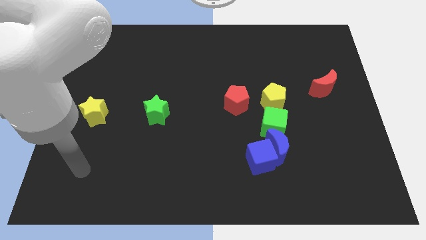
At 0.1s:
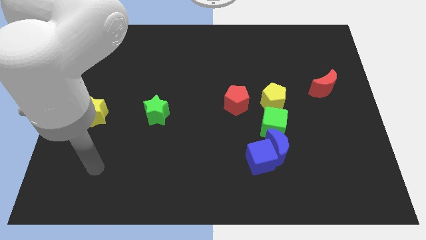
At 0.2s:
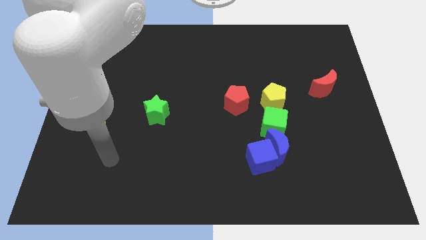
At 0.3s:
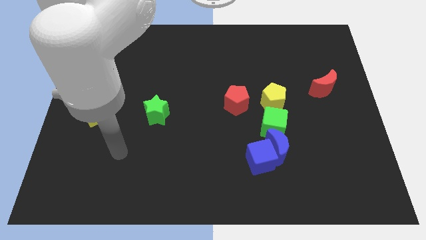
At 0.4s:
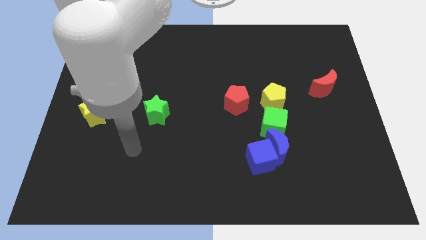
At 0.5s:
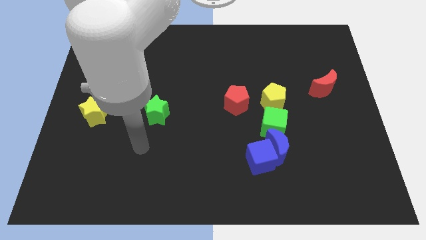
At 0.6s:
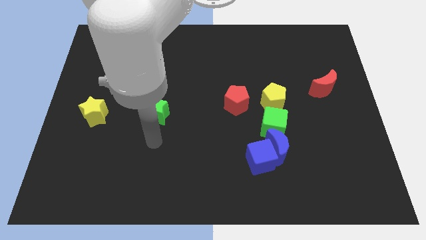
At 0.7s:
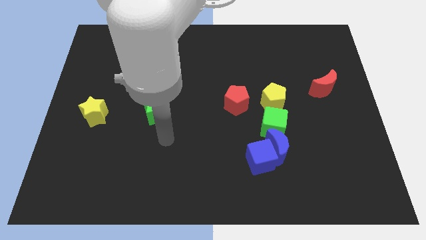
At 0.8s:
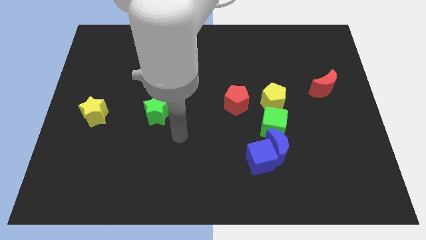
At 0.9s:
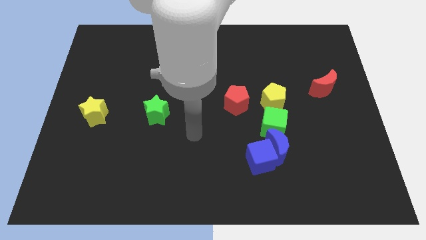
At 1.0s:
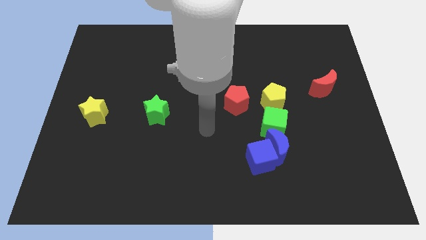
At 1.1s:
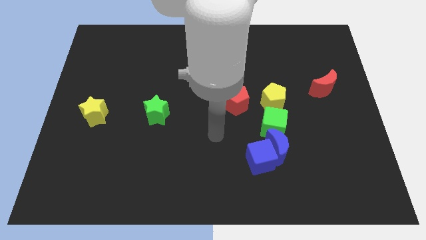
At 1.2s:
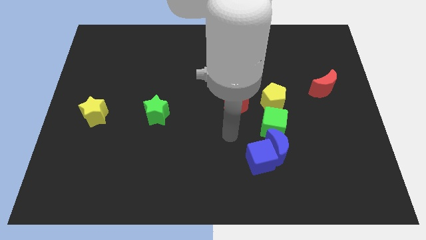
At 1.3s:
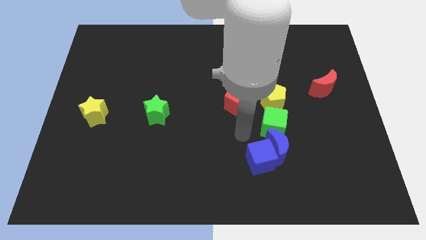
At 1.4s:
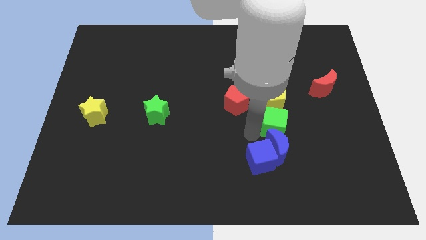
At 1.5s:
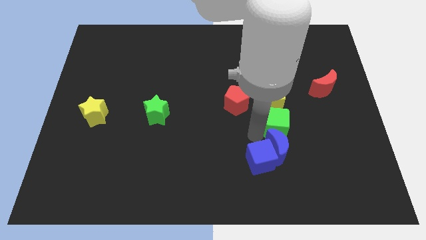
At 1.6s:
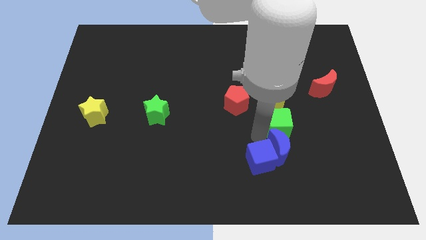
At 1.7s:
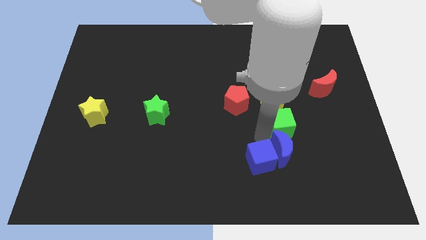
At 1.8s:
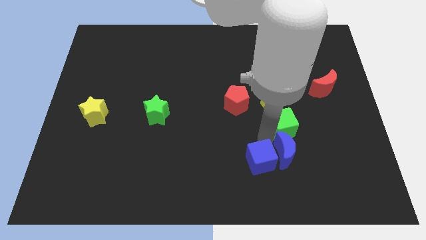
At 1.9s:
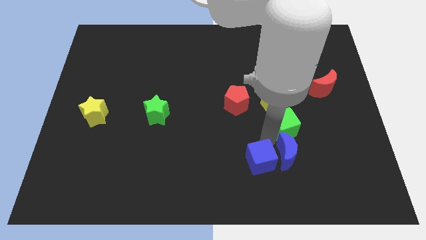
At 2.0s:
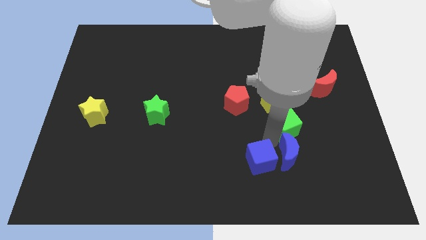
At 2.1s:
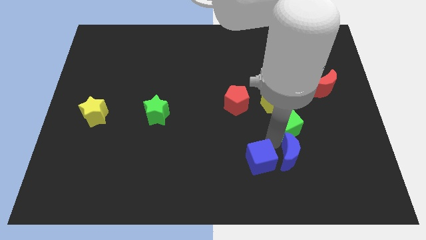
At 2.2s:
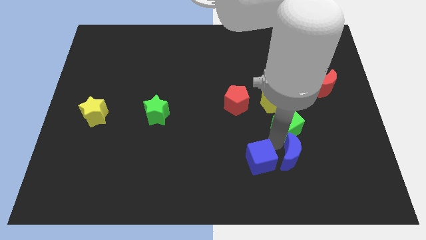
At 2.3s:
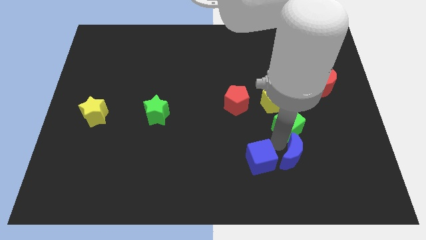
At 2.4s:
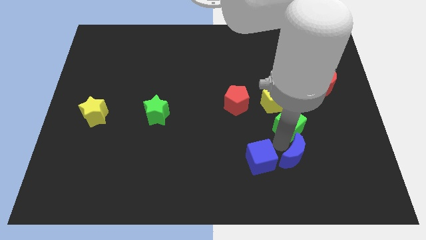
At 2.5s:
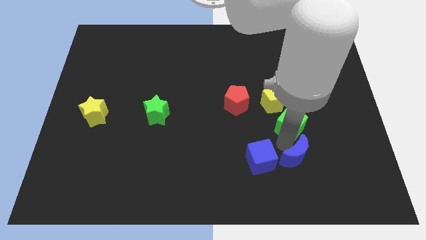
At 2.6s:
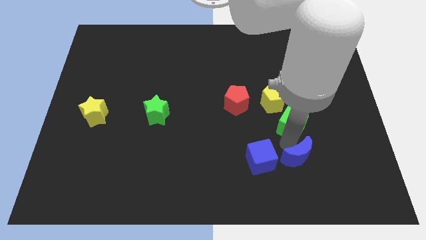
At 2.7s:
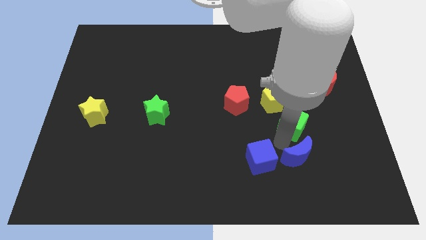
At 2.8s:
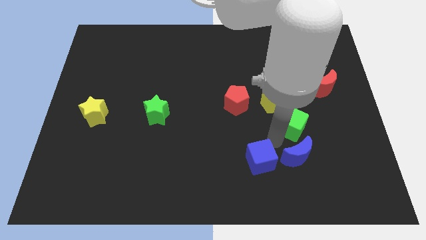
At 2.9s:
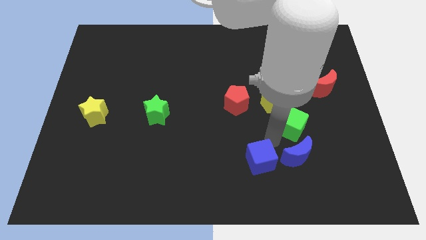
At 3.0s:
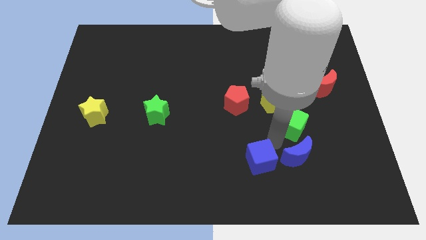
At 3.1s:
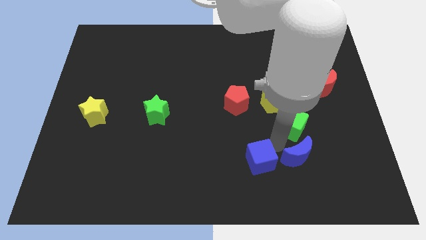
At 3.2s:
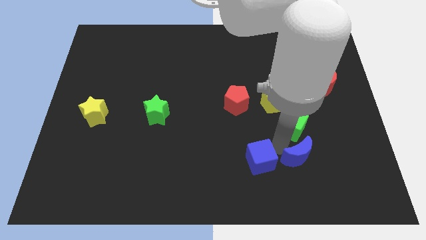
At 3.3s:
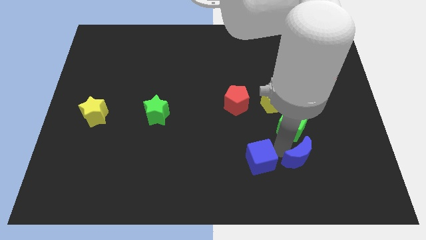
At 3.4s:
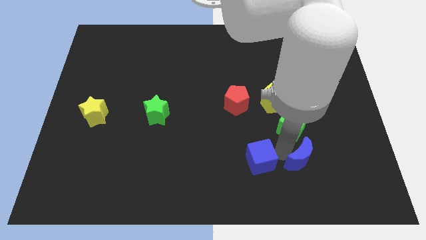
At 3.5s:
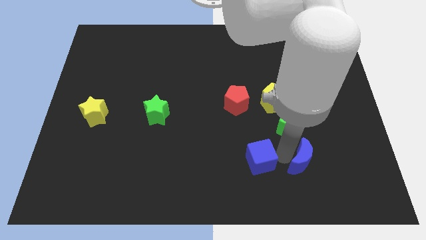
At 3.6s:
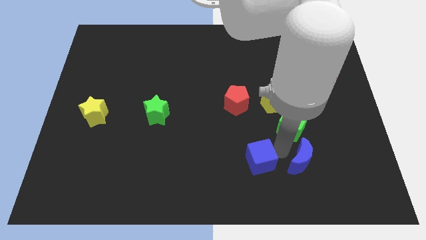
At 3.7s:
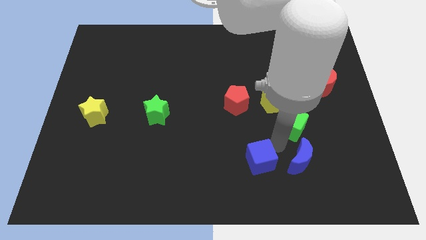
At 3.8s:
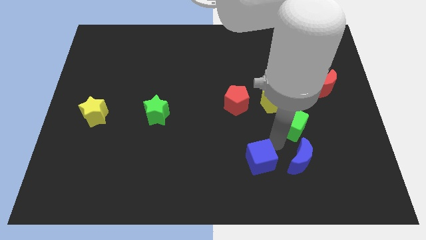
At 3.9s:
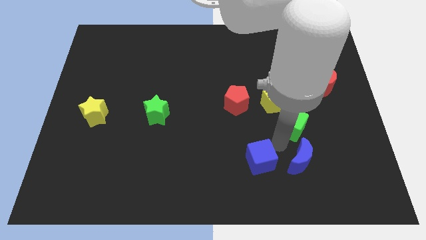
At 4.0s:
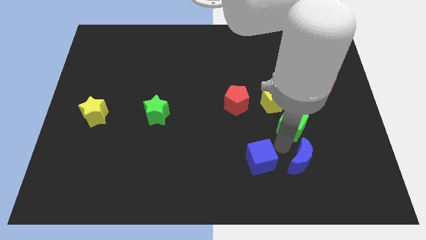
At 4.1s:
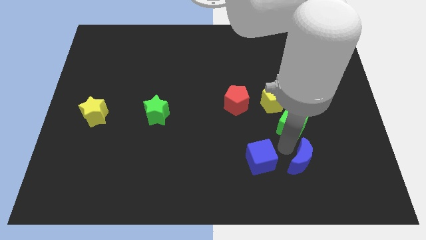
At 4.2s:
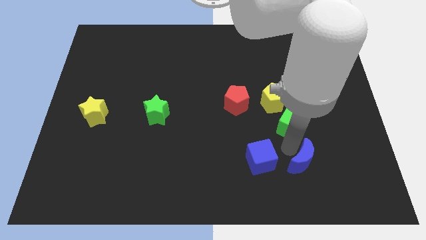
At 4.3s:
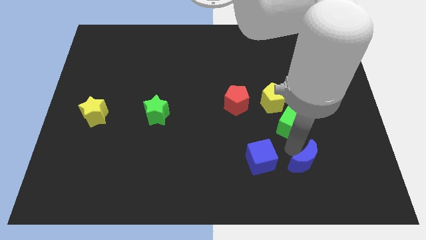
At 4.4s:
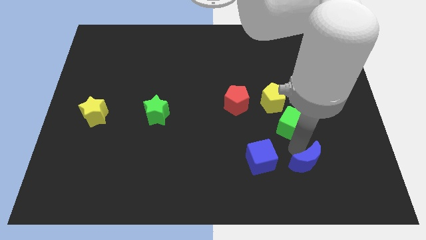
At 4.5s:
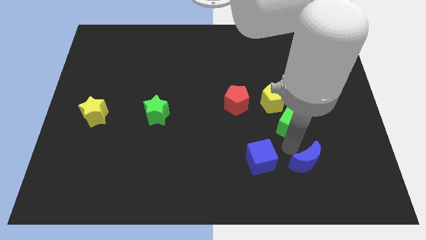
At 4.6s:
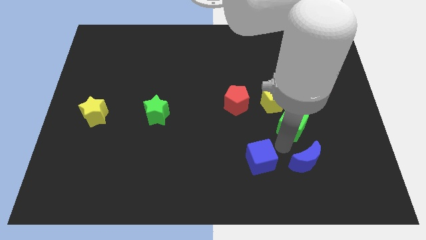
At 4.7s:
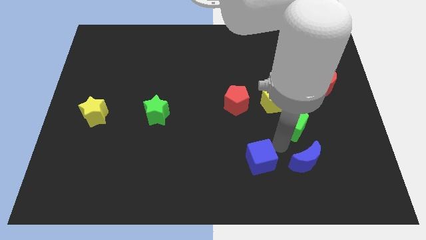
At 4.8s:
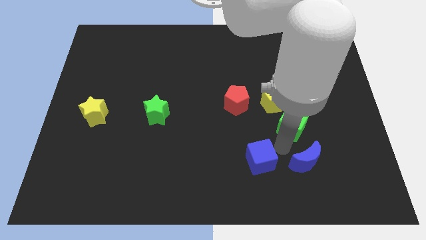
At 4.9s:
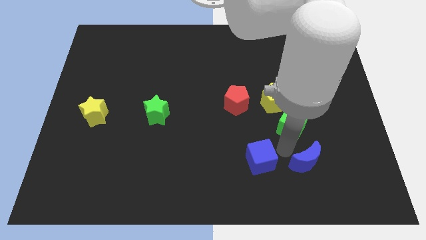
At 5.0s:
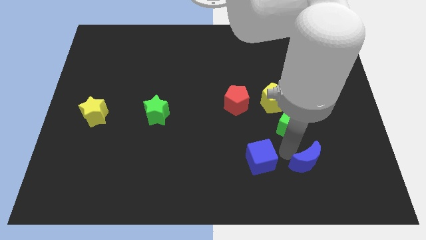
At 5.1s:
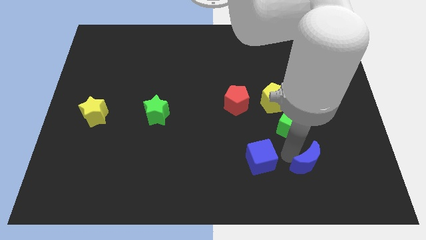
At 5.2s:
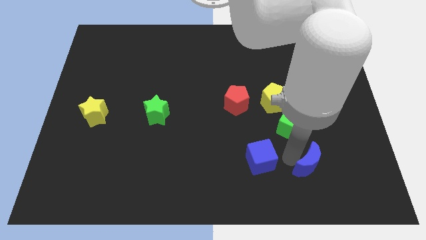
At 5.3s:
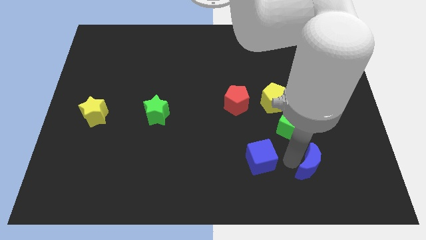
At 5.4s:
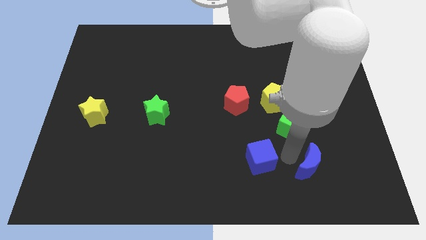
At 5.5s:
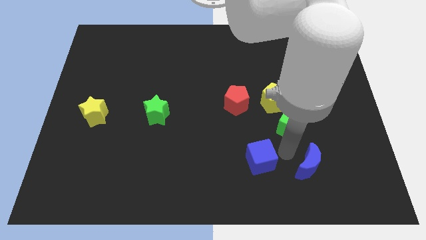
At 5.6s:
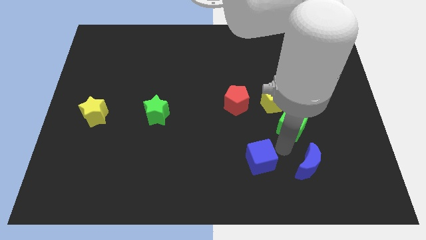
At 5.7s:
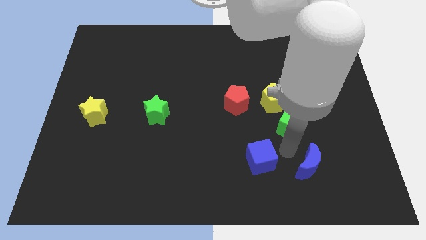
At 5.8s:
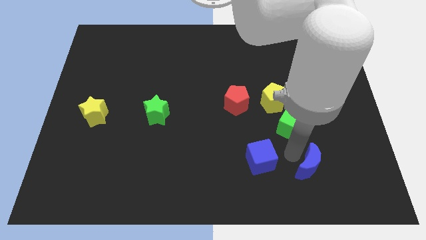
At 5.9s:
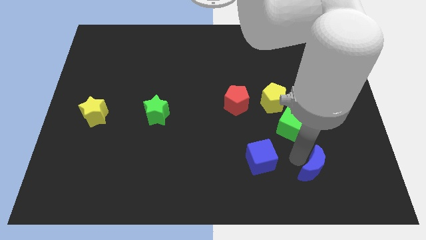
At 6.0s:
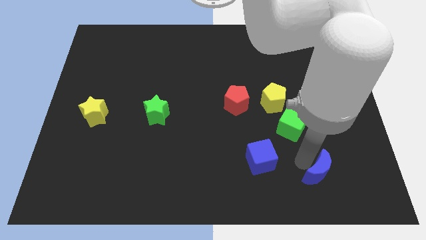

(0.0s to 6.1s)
move the blue moon away from the blue cube and green cube

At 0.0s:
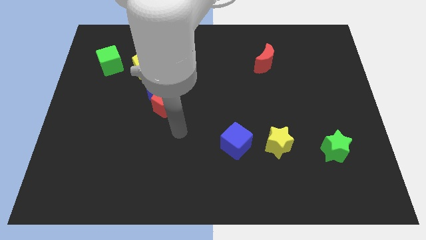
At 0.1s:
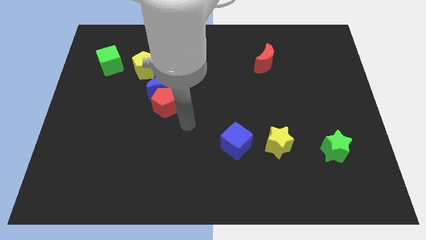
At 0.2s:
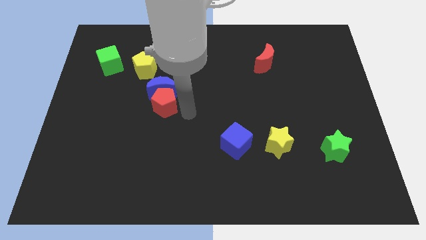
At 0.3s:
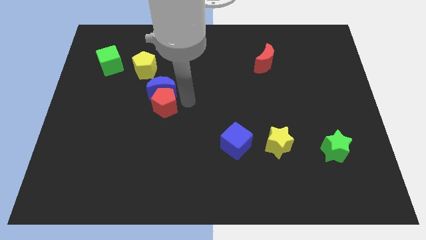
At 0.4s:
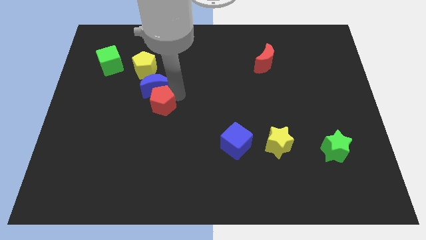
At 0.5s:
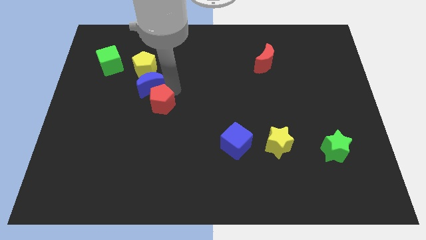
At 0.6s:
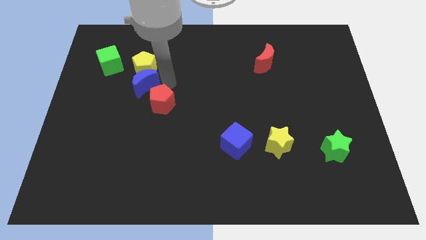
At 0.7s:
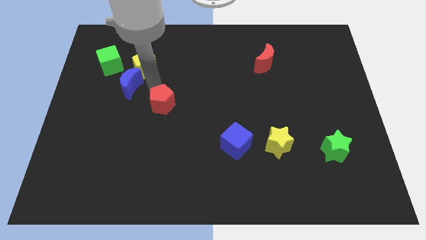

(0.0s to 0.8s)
move the red pentagon away from the blue moon

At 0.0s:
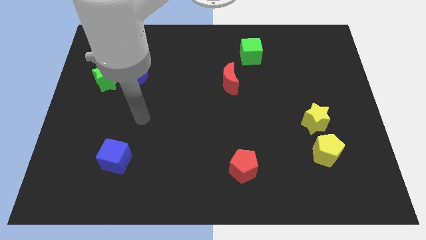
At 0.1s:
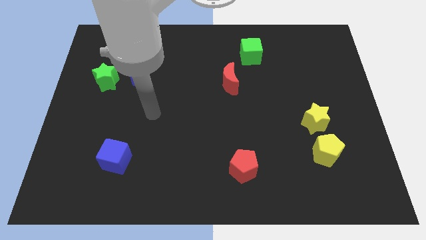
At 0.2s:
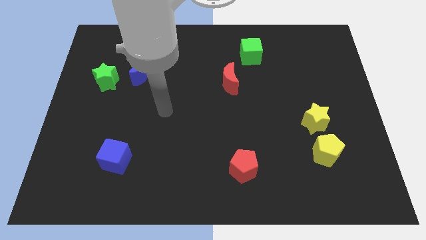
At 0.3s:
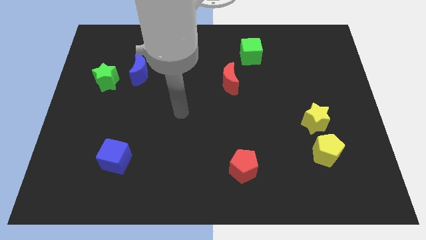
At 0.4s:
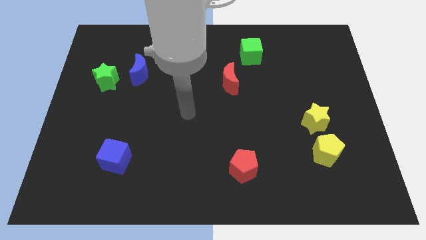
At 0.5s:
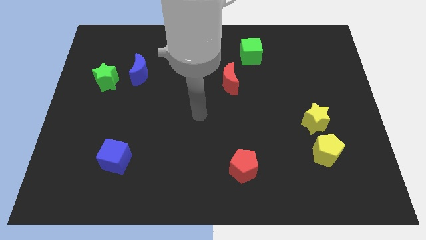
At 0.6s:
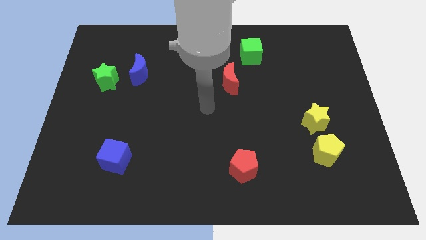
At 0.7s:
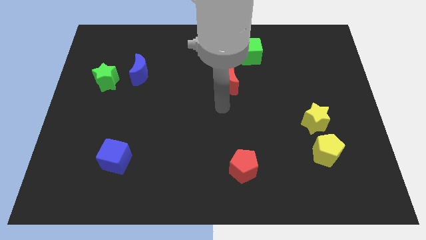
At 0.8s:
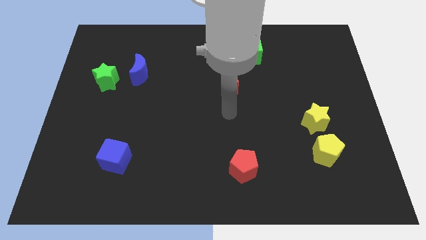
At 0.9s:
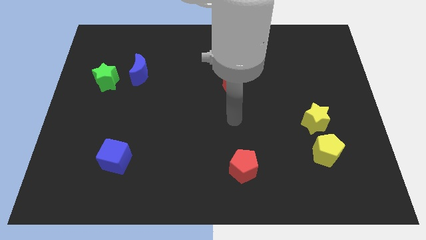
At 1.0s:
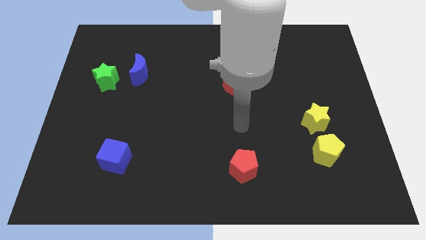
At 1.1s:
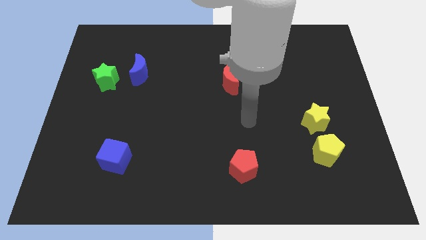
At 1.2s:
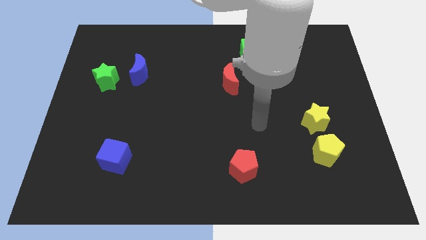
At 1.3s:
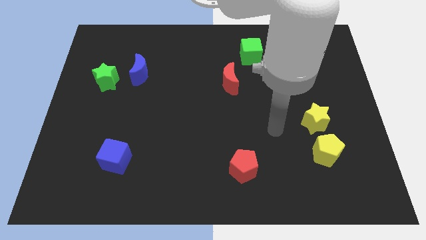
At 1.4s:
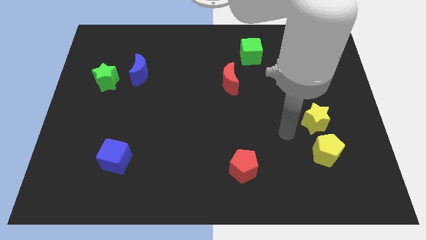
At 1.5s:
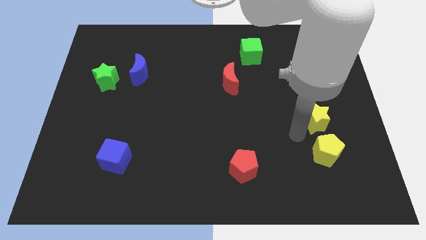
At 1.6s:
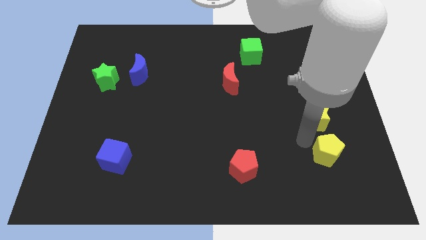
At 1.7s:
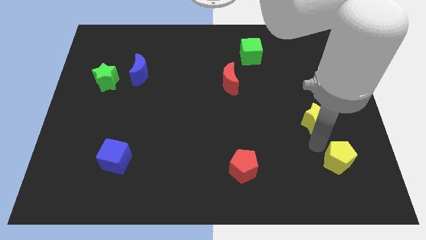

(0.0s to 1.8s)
pull the yellow star apart from the yellow pentagon

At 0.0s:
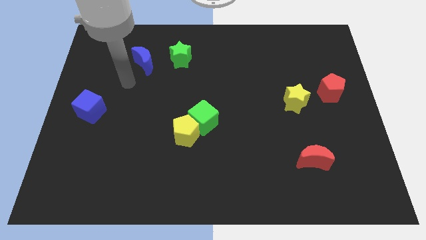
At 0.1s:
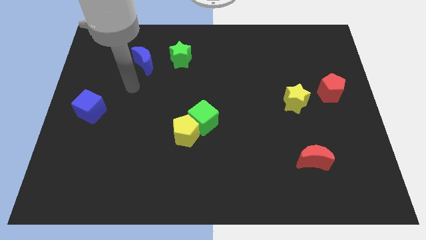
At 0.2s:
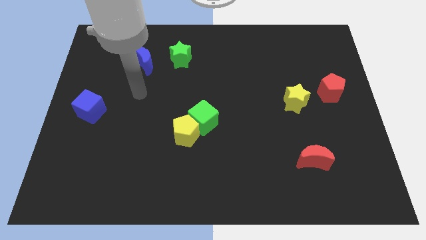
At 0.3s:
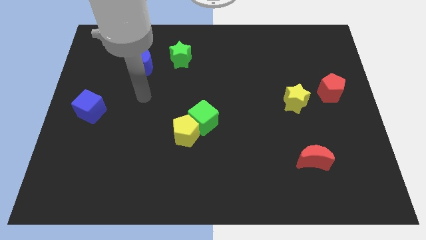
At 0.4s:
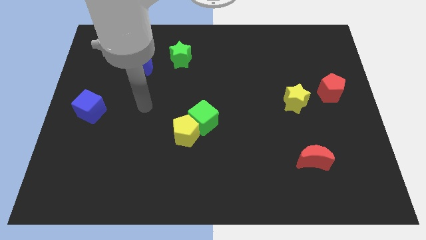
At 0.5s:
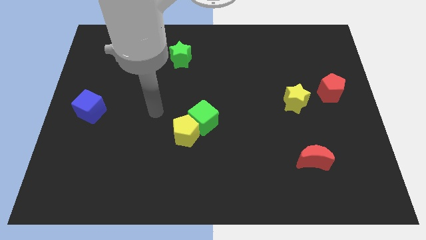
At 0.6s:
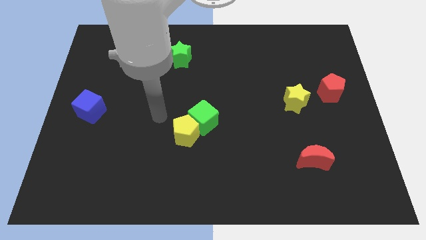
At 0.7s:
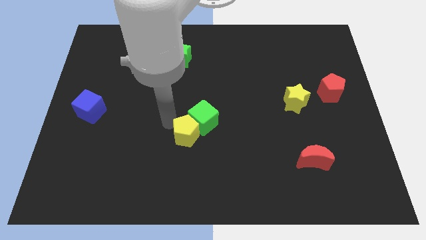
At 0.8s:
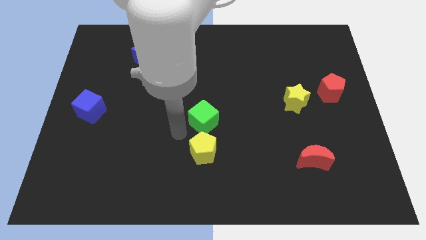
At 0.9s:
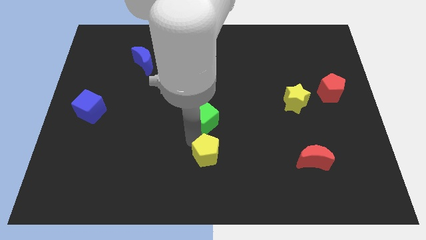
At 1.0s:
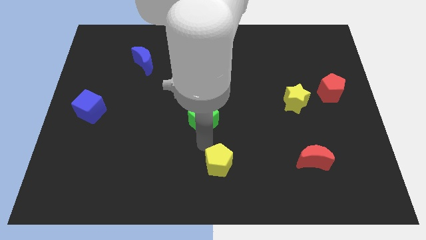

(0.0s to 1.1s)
move the green cube away from the yellow pentagon
